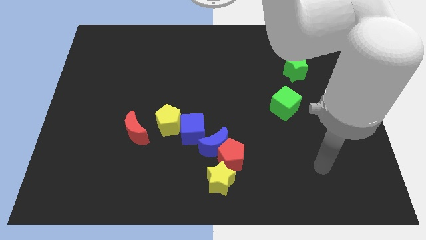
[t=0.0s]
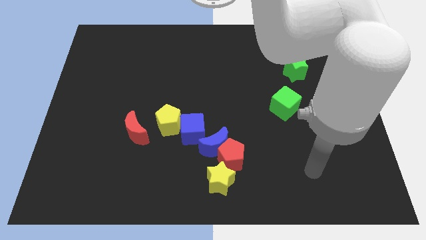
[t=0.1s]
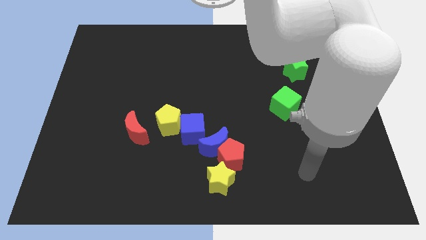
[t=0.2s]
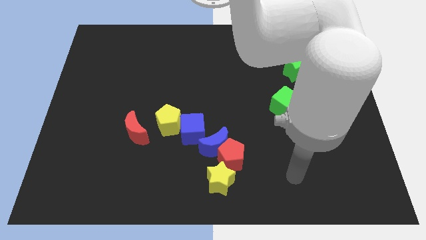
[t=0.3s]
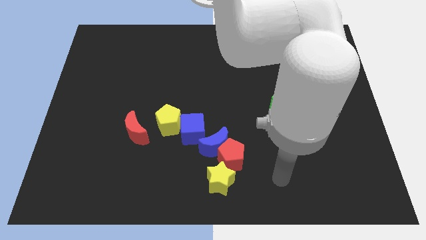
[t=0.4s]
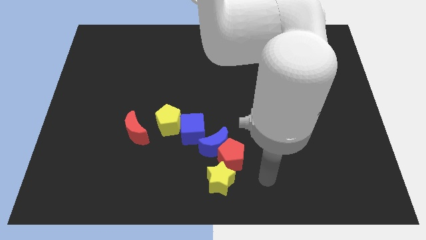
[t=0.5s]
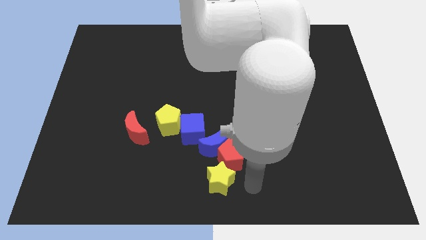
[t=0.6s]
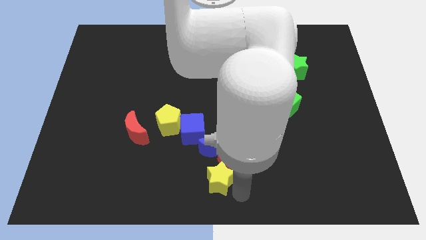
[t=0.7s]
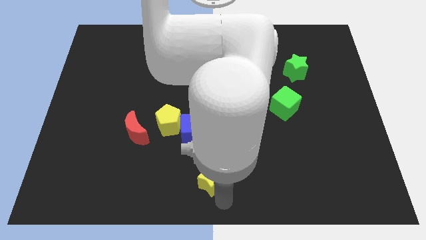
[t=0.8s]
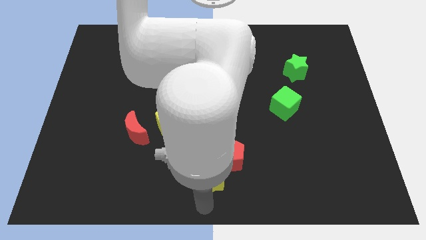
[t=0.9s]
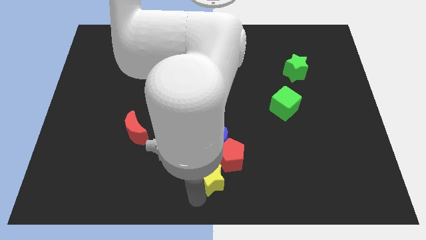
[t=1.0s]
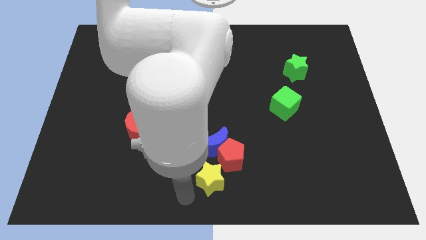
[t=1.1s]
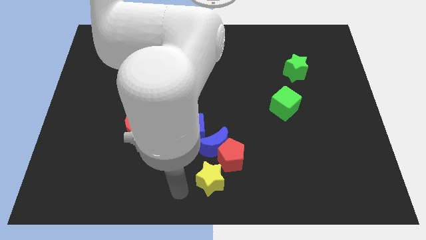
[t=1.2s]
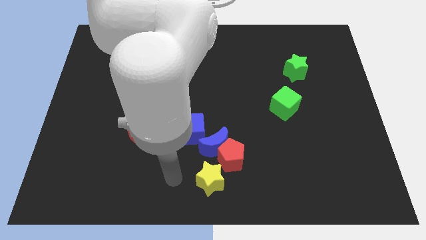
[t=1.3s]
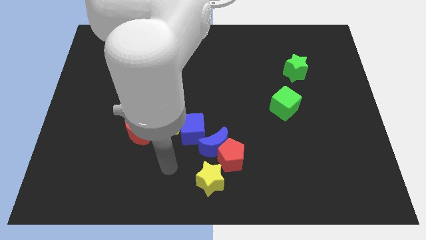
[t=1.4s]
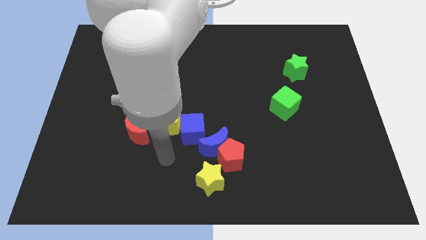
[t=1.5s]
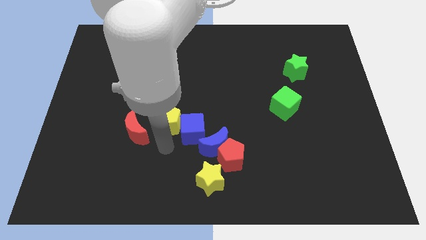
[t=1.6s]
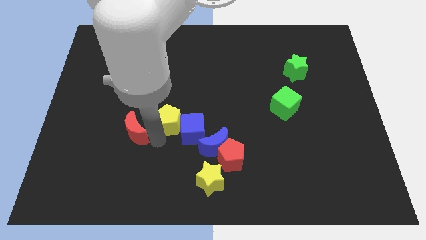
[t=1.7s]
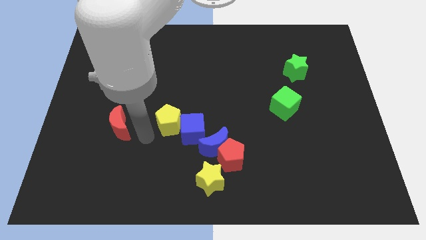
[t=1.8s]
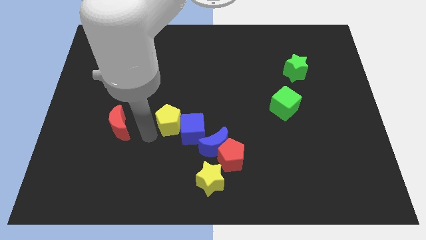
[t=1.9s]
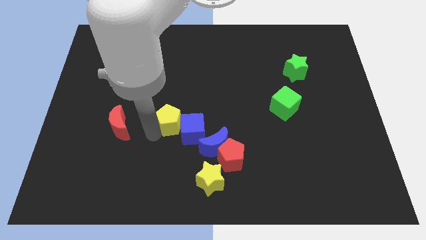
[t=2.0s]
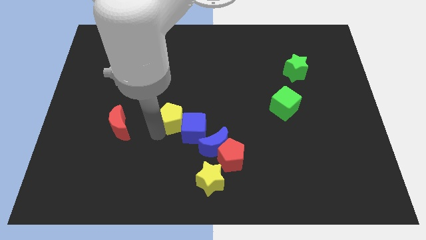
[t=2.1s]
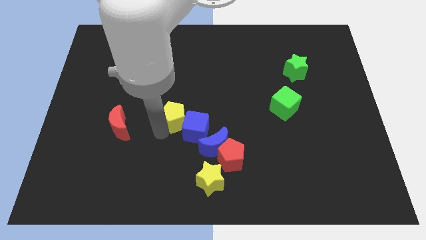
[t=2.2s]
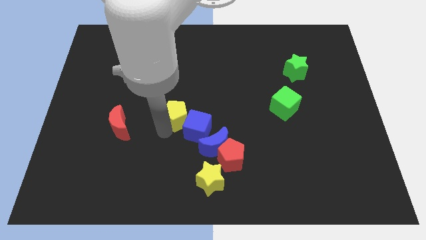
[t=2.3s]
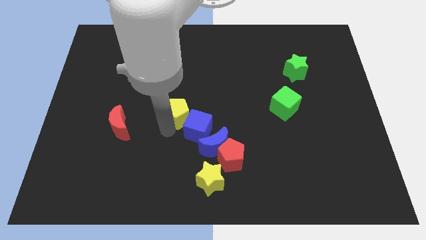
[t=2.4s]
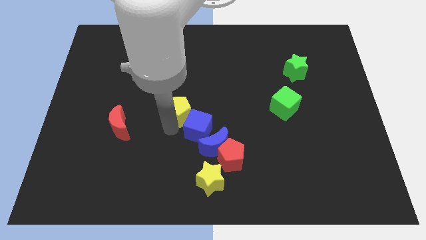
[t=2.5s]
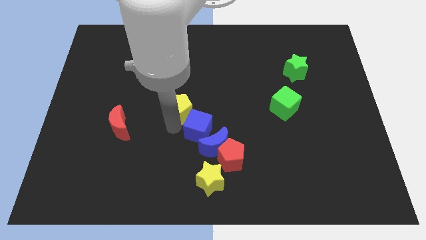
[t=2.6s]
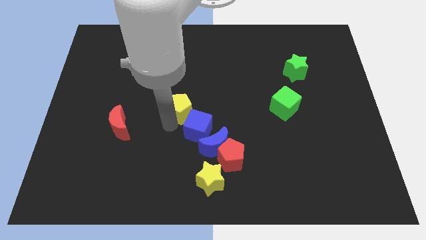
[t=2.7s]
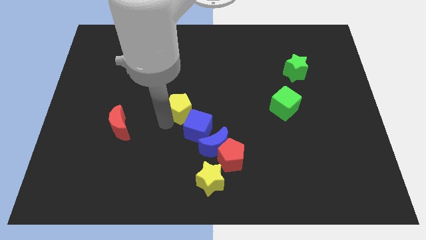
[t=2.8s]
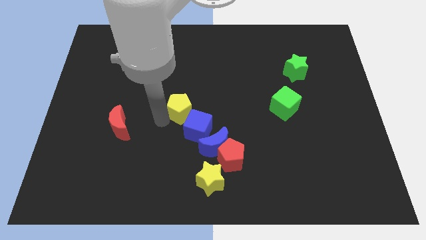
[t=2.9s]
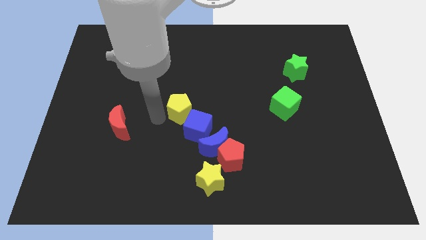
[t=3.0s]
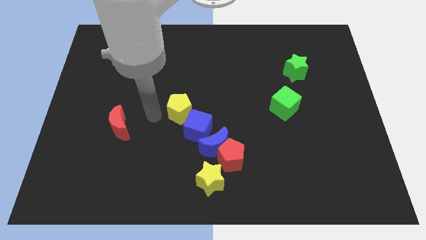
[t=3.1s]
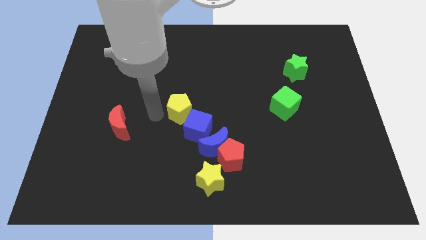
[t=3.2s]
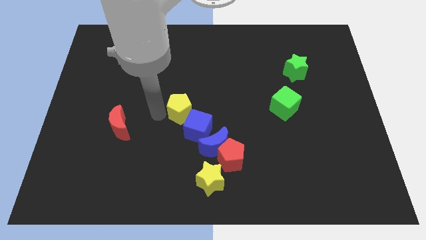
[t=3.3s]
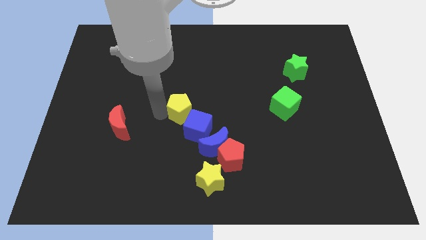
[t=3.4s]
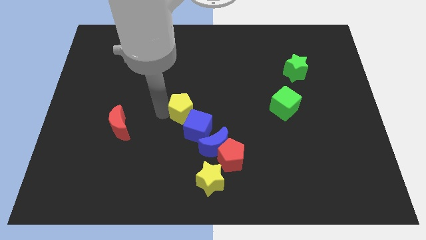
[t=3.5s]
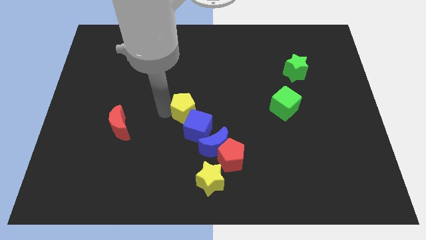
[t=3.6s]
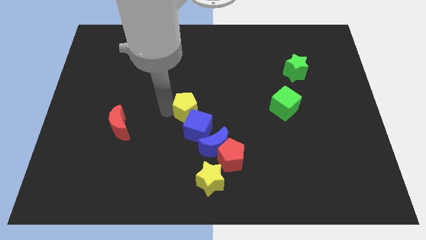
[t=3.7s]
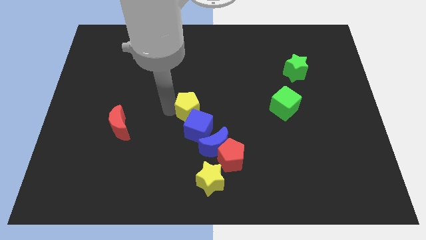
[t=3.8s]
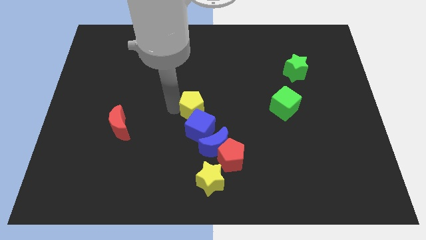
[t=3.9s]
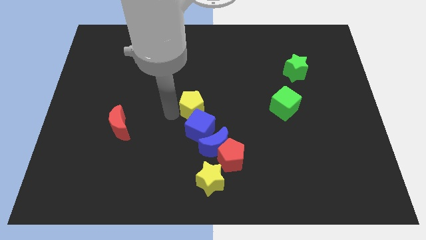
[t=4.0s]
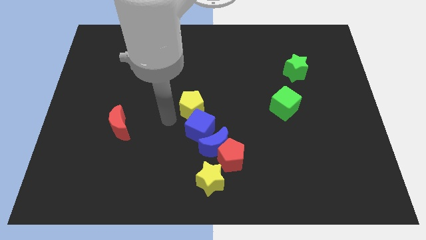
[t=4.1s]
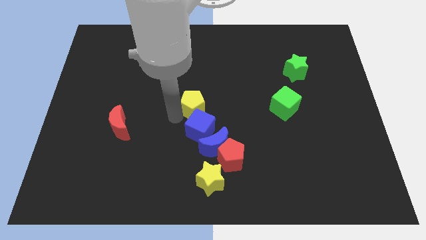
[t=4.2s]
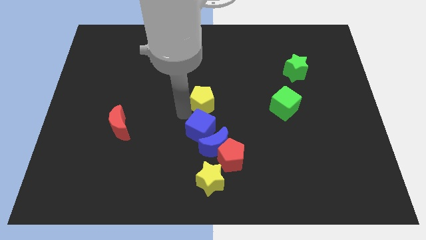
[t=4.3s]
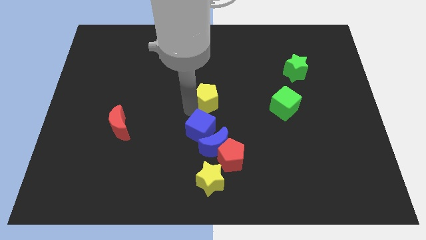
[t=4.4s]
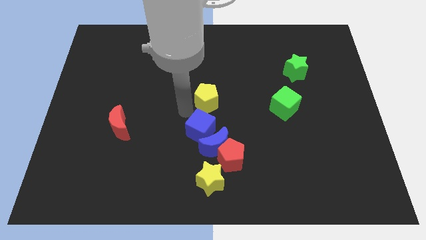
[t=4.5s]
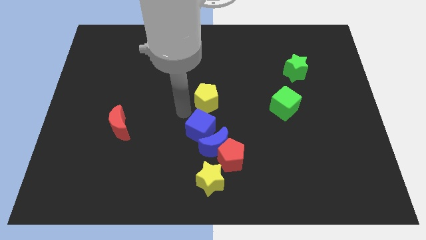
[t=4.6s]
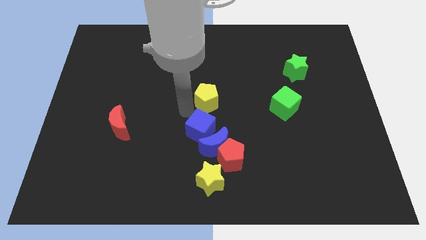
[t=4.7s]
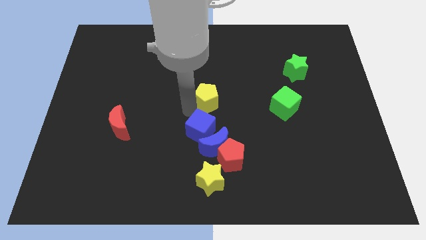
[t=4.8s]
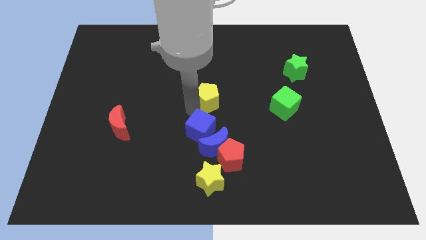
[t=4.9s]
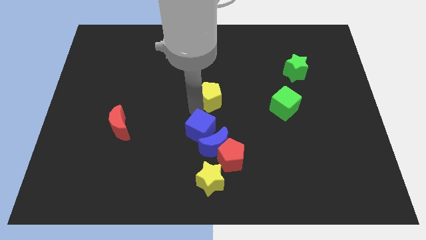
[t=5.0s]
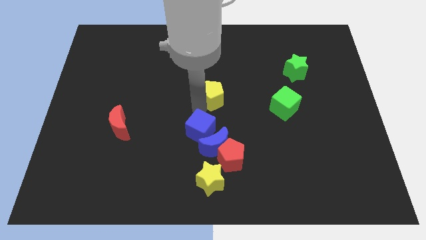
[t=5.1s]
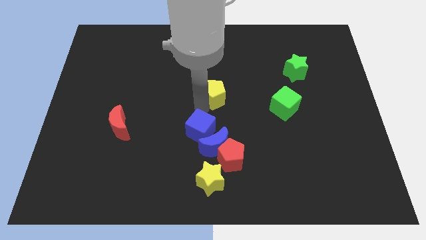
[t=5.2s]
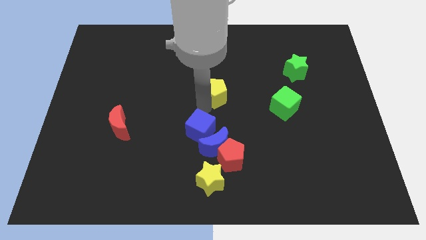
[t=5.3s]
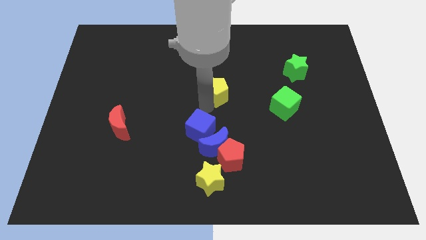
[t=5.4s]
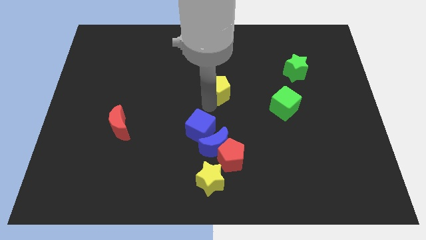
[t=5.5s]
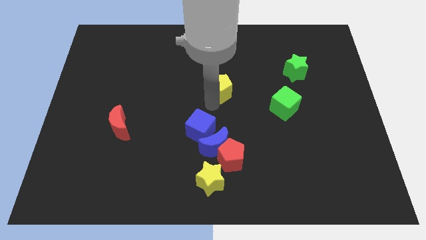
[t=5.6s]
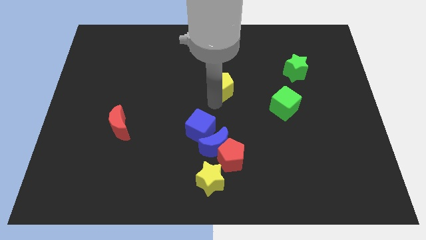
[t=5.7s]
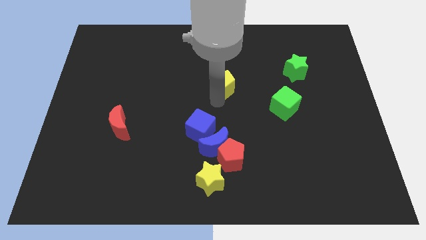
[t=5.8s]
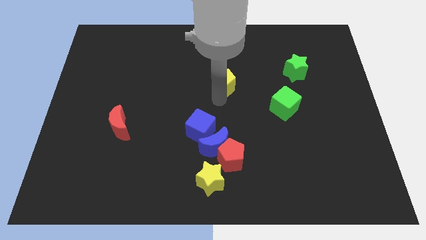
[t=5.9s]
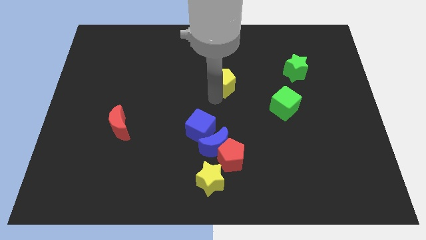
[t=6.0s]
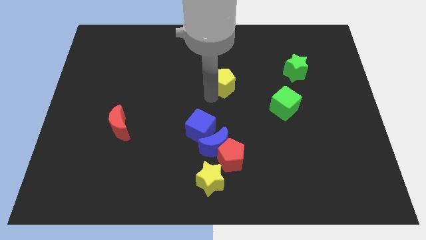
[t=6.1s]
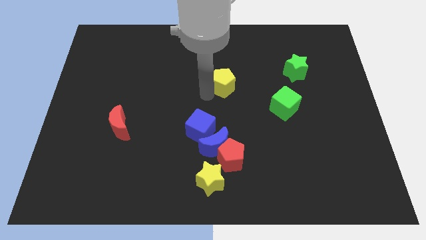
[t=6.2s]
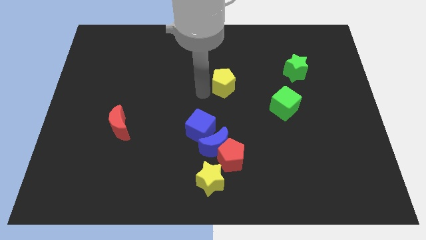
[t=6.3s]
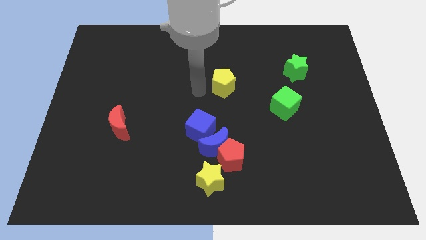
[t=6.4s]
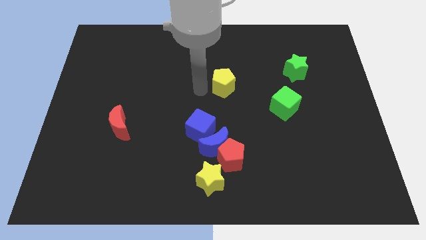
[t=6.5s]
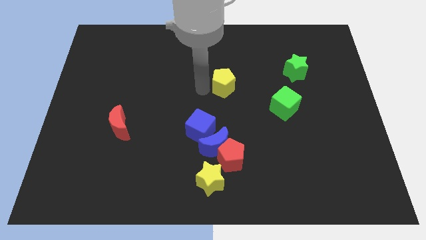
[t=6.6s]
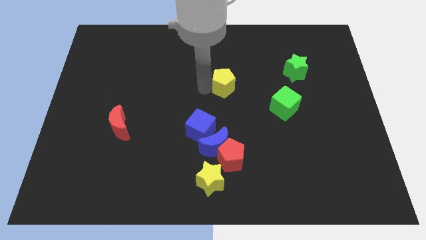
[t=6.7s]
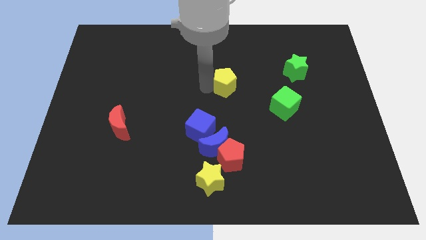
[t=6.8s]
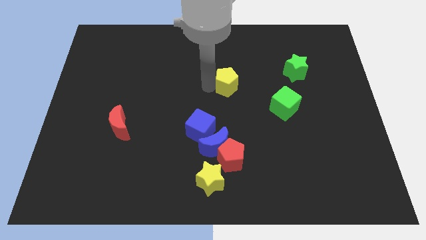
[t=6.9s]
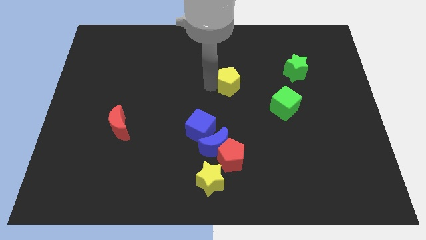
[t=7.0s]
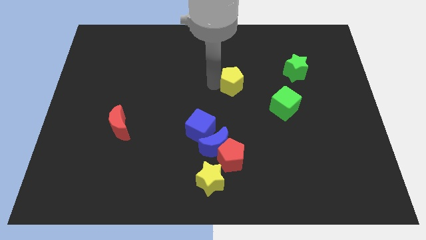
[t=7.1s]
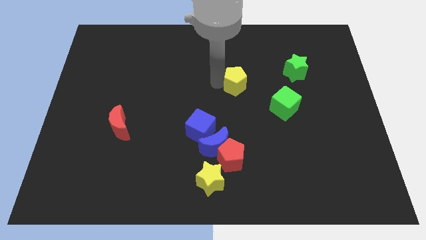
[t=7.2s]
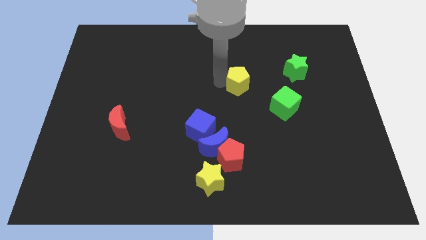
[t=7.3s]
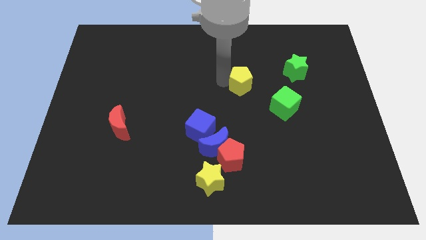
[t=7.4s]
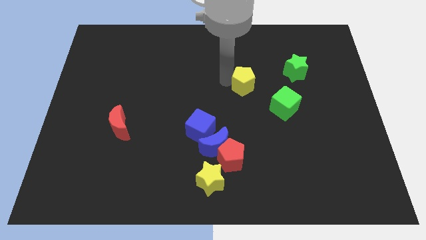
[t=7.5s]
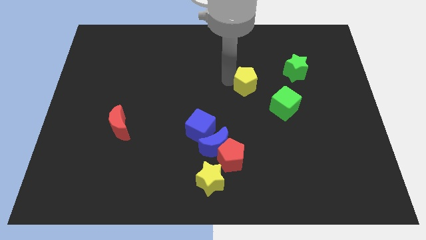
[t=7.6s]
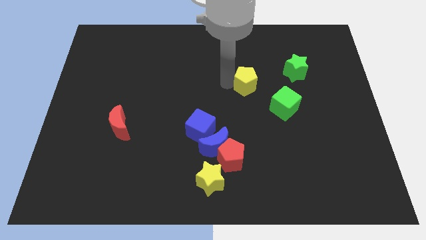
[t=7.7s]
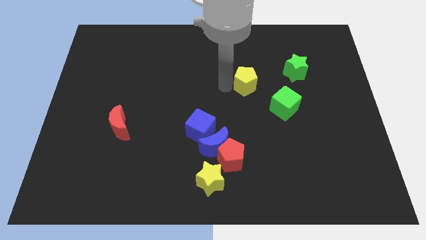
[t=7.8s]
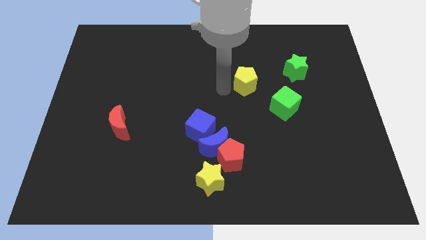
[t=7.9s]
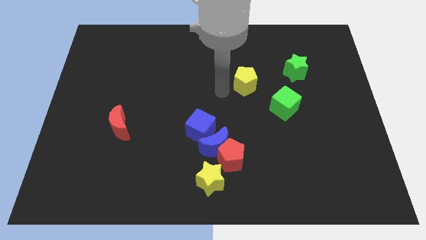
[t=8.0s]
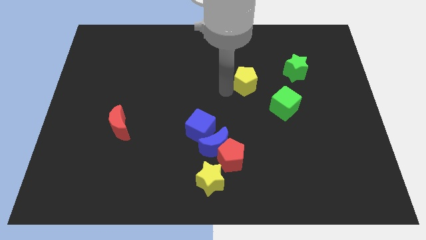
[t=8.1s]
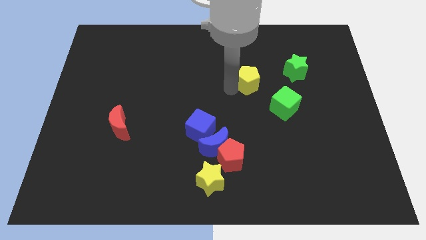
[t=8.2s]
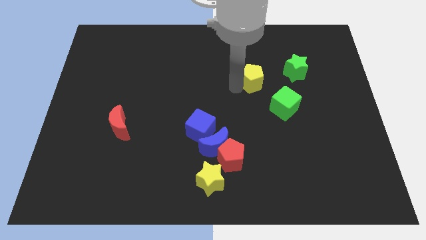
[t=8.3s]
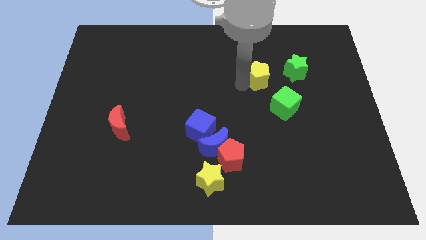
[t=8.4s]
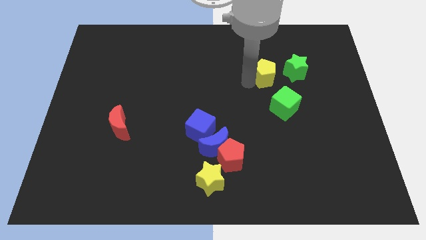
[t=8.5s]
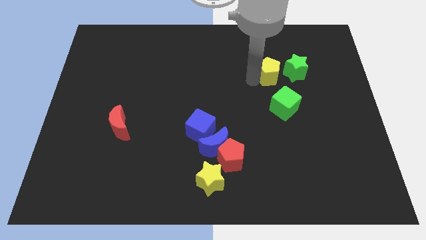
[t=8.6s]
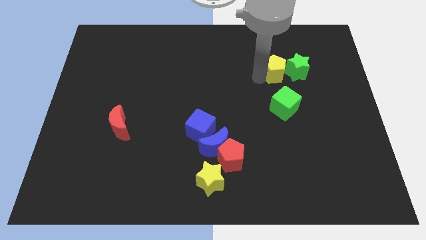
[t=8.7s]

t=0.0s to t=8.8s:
slide the yellow pentagon next to the green star
